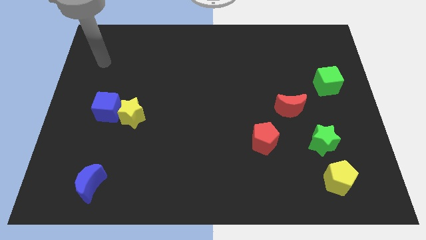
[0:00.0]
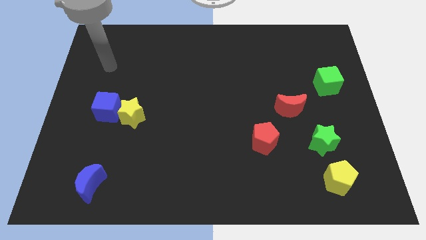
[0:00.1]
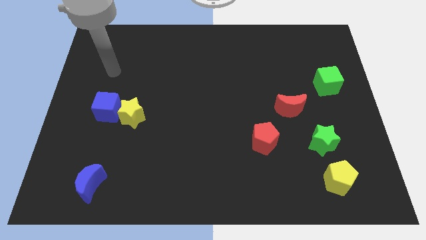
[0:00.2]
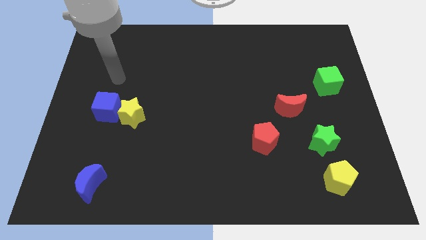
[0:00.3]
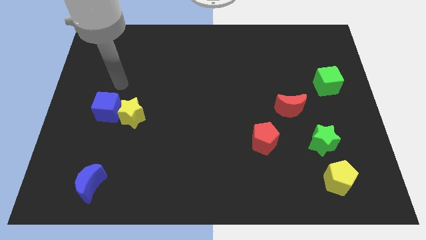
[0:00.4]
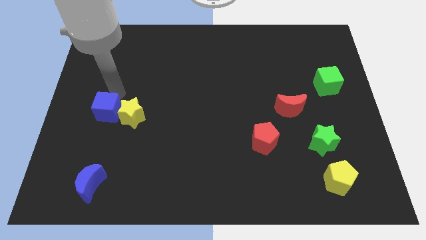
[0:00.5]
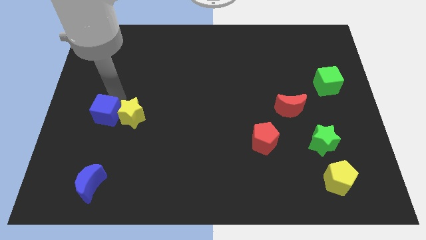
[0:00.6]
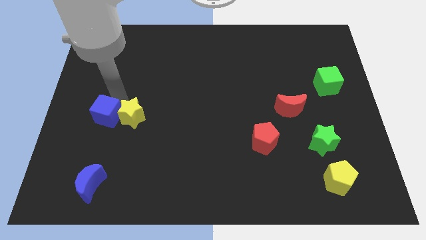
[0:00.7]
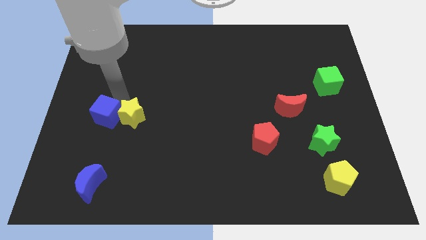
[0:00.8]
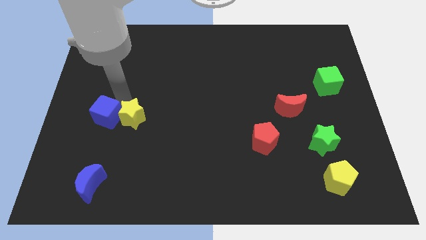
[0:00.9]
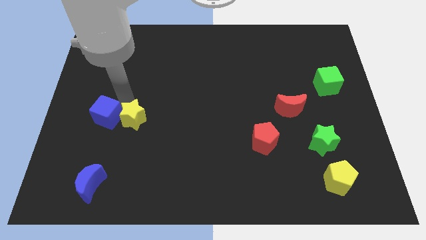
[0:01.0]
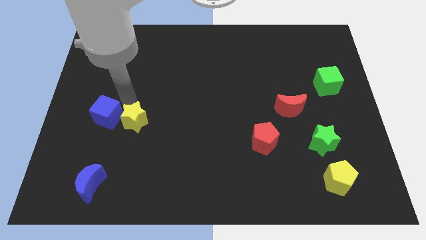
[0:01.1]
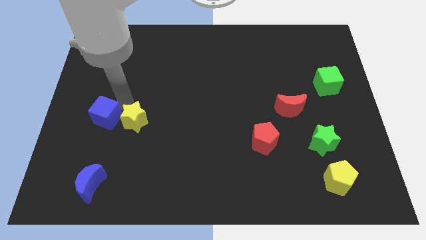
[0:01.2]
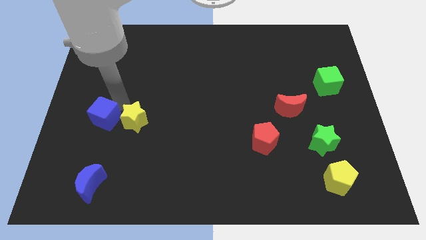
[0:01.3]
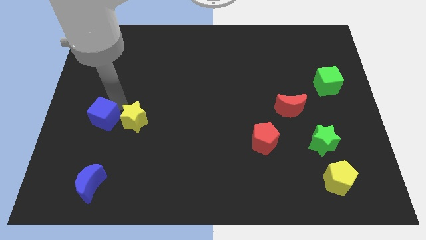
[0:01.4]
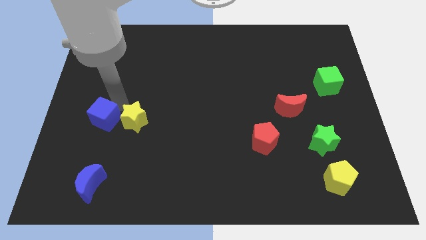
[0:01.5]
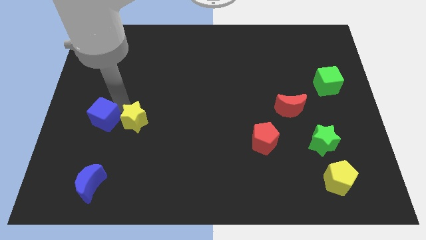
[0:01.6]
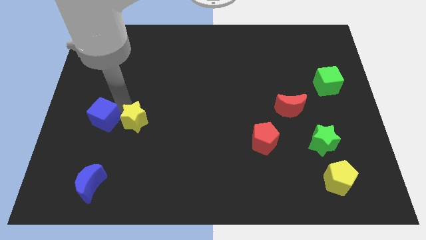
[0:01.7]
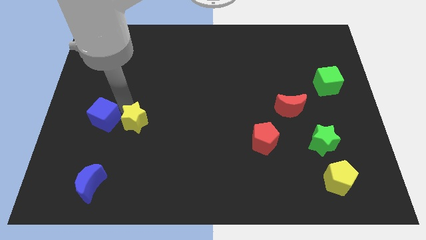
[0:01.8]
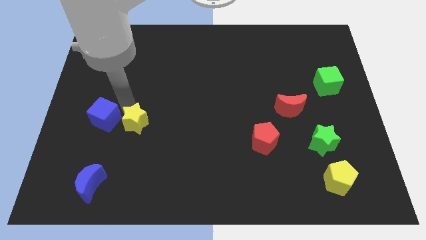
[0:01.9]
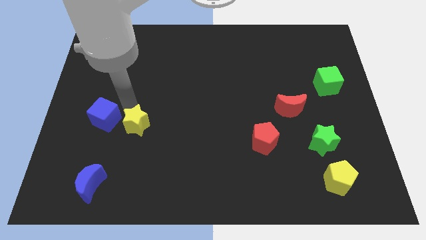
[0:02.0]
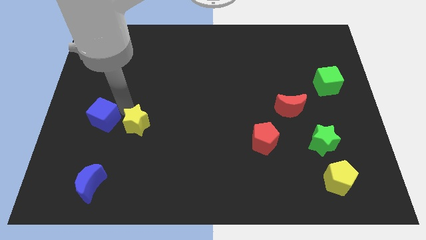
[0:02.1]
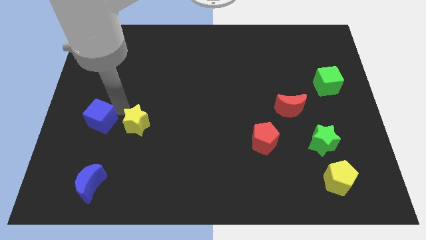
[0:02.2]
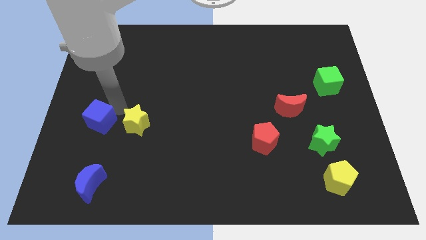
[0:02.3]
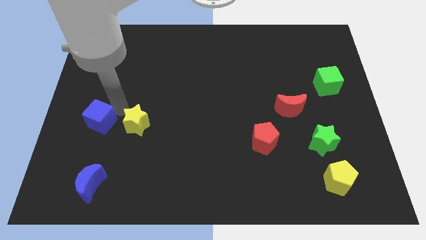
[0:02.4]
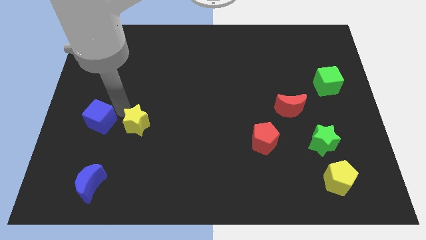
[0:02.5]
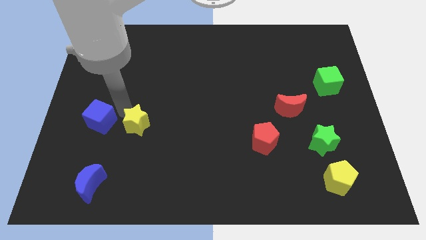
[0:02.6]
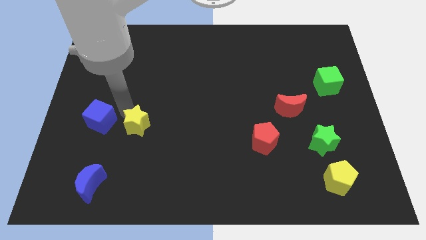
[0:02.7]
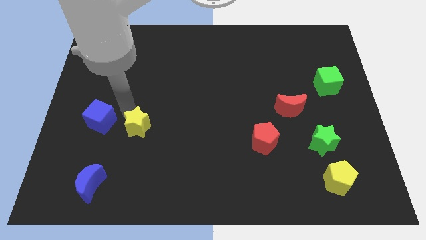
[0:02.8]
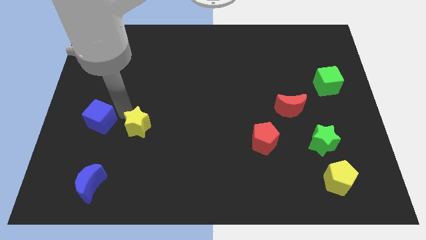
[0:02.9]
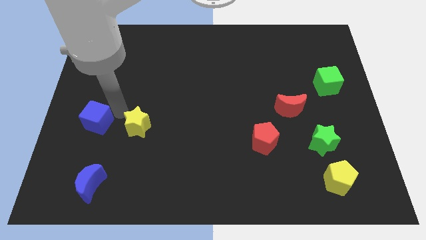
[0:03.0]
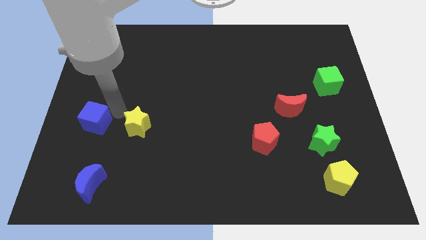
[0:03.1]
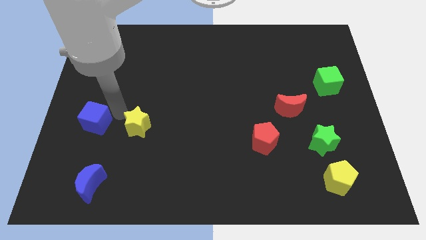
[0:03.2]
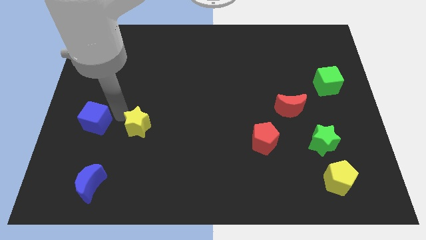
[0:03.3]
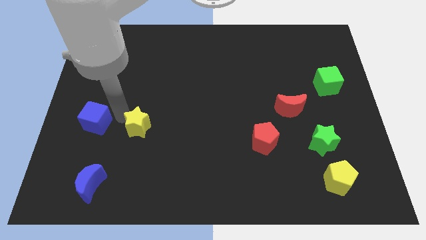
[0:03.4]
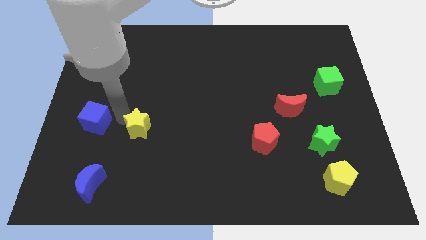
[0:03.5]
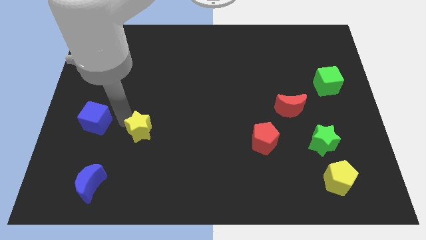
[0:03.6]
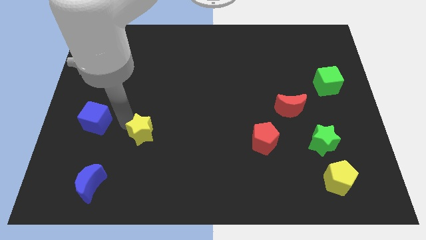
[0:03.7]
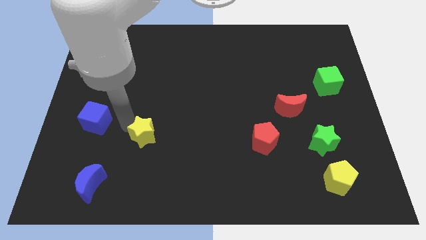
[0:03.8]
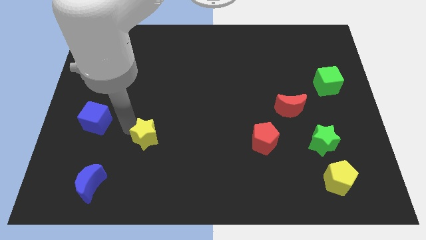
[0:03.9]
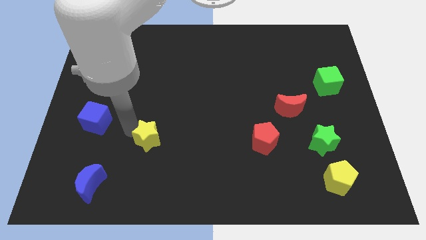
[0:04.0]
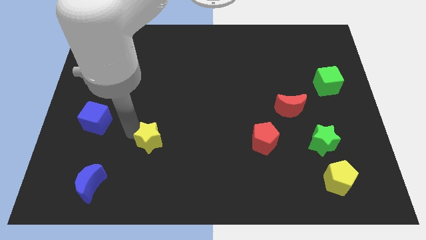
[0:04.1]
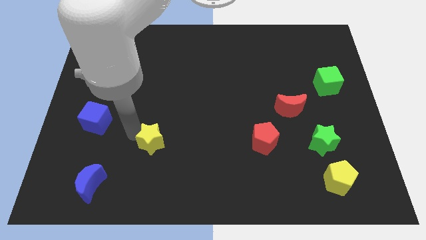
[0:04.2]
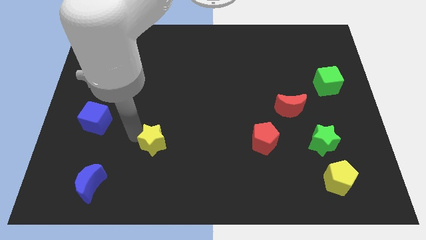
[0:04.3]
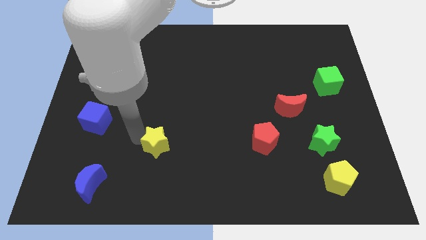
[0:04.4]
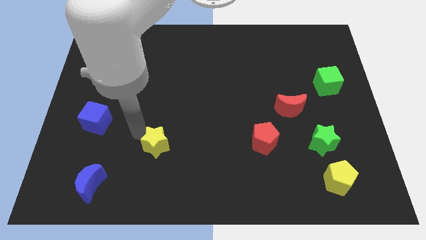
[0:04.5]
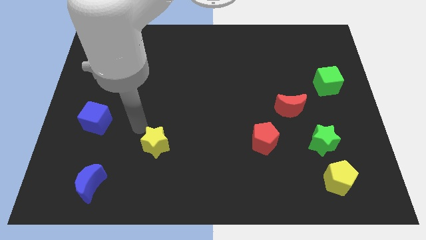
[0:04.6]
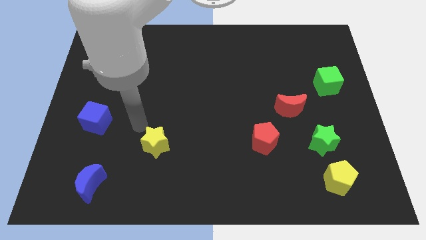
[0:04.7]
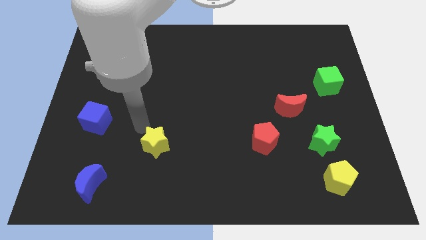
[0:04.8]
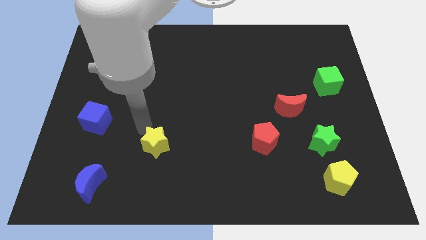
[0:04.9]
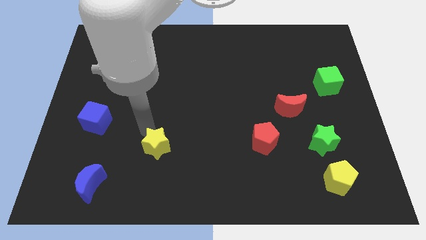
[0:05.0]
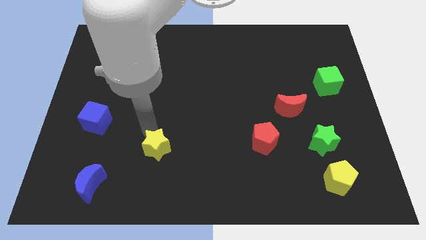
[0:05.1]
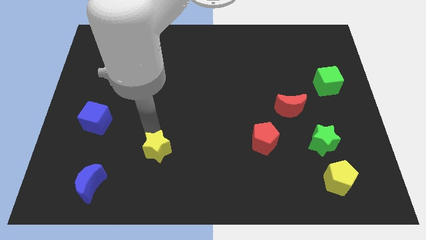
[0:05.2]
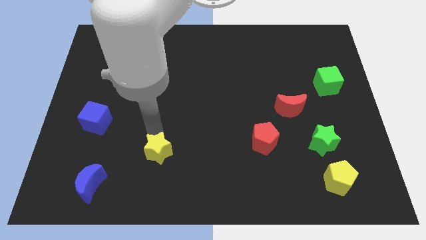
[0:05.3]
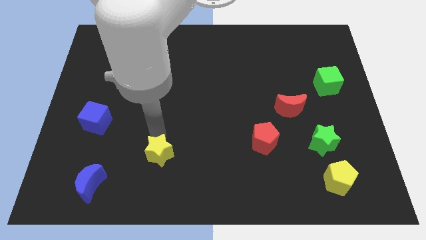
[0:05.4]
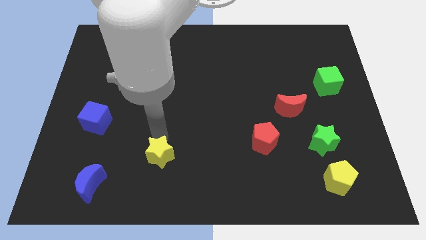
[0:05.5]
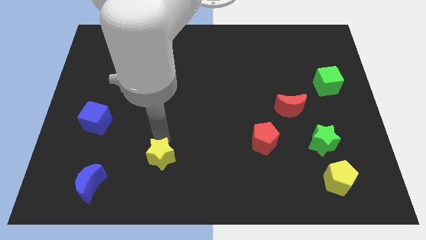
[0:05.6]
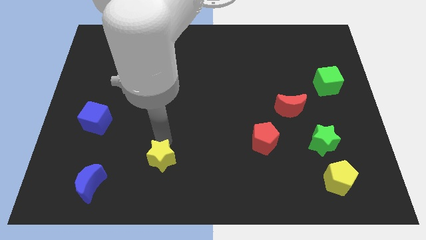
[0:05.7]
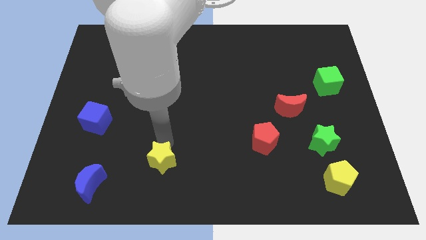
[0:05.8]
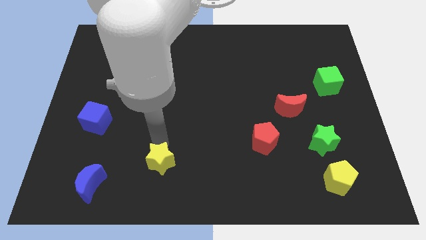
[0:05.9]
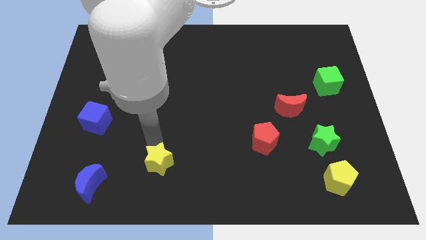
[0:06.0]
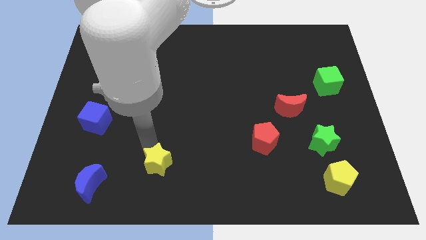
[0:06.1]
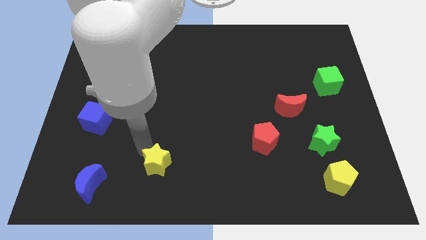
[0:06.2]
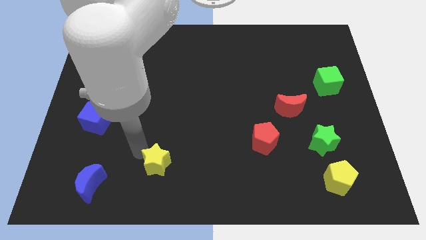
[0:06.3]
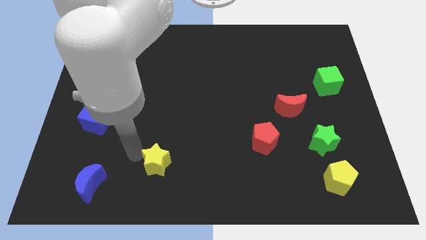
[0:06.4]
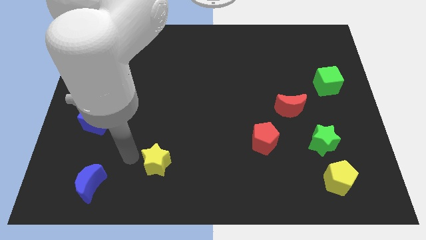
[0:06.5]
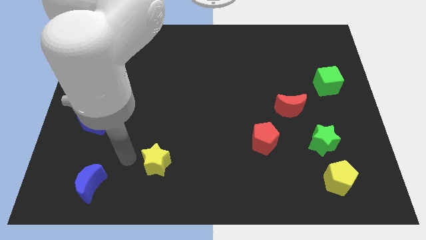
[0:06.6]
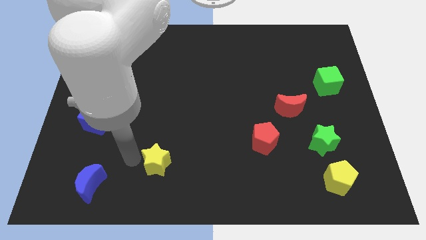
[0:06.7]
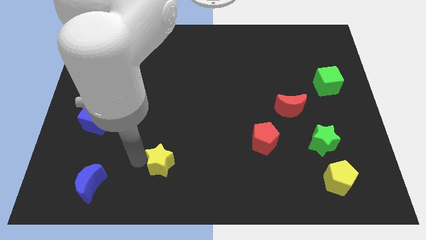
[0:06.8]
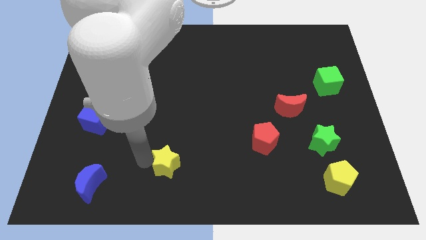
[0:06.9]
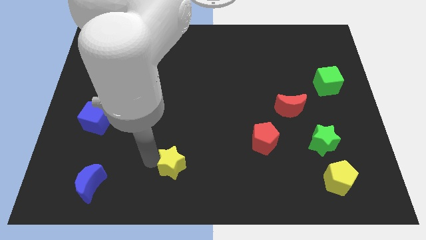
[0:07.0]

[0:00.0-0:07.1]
push the yellow star to the bottom side
